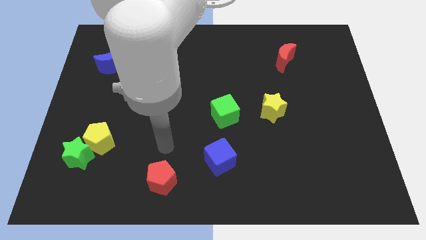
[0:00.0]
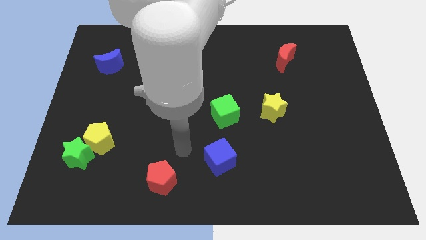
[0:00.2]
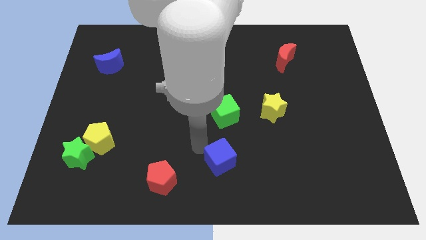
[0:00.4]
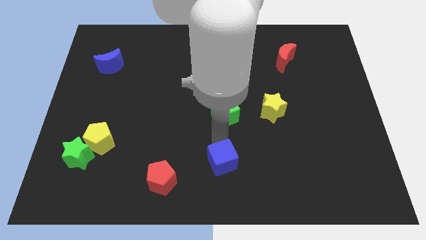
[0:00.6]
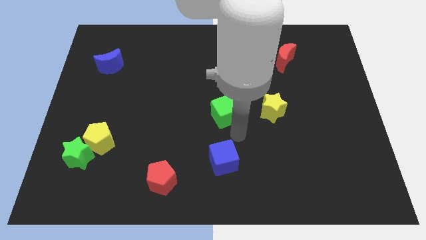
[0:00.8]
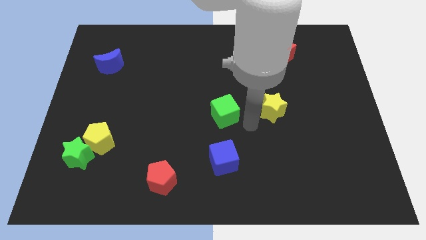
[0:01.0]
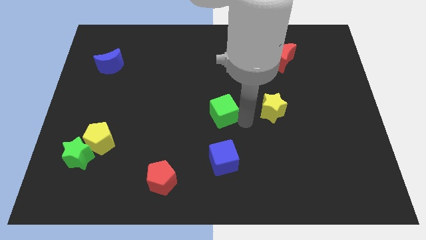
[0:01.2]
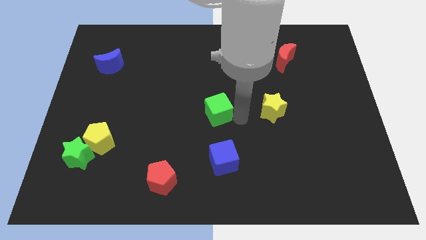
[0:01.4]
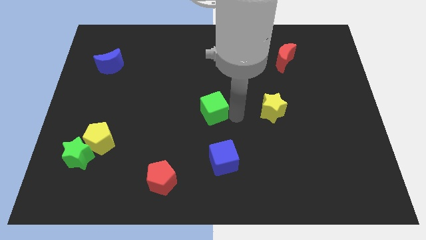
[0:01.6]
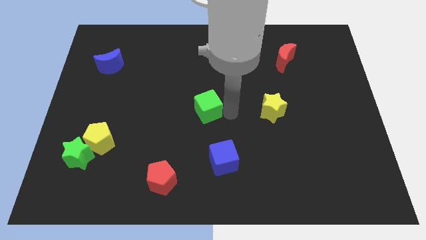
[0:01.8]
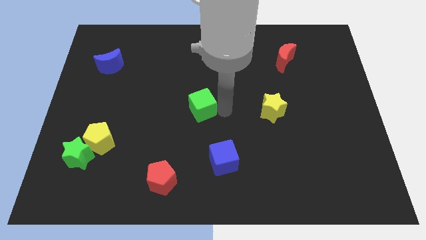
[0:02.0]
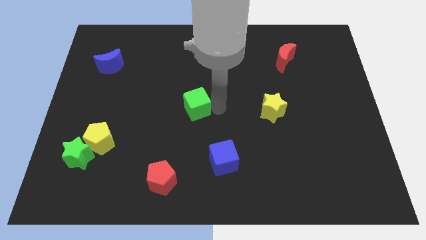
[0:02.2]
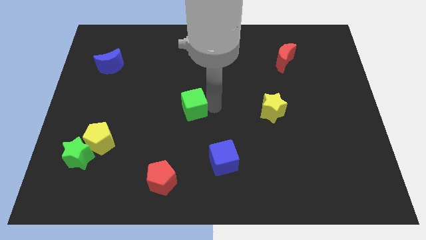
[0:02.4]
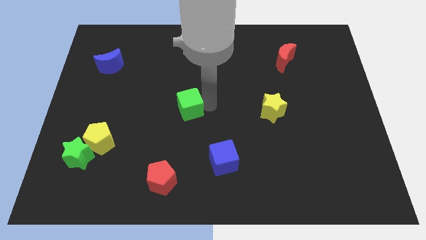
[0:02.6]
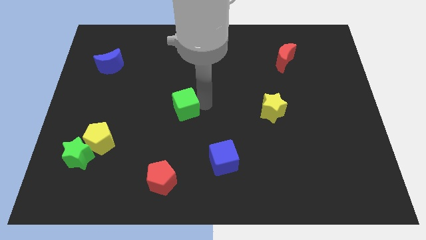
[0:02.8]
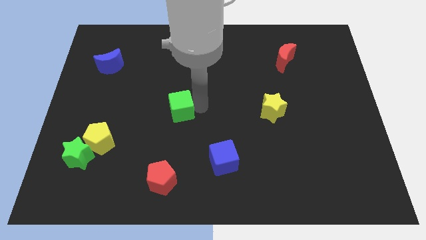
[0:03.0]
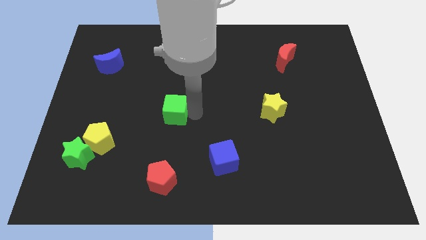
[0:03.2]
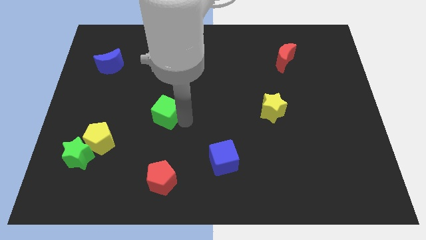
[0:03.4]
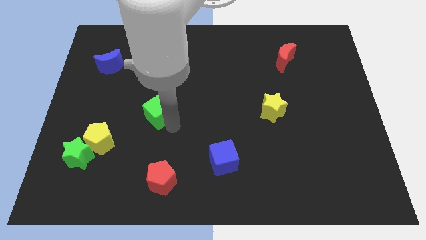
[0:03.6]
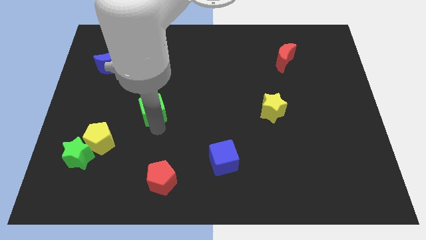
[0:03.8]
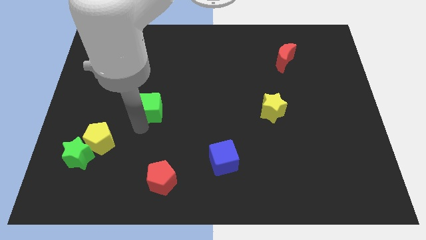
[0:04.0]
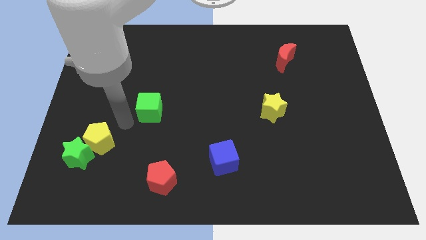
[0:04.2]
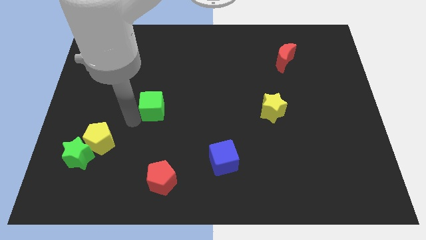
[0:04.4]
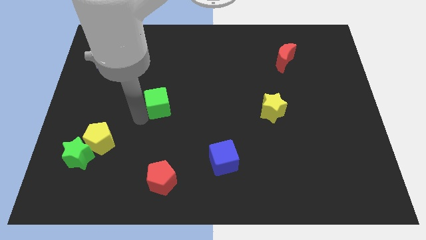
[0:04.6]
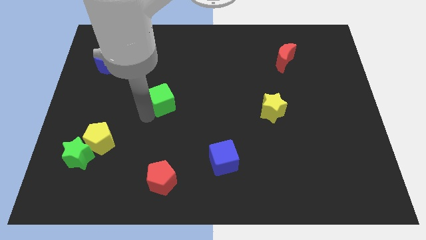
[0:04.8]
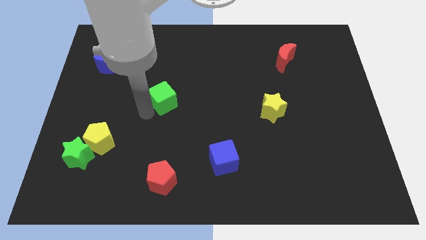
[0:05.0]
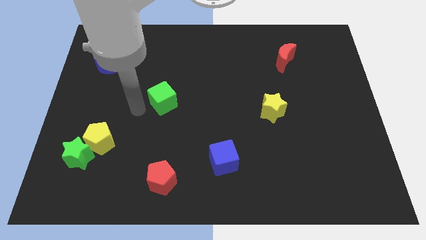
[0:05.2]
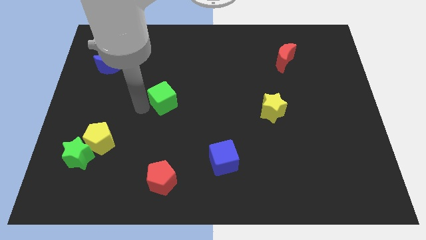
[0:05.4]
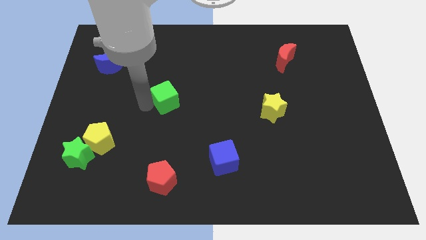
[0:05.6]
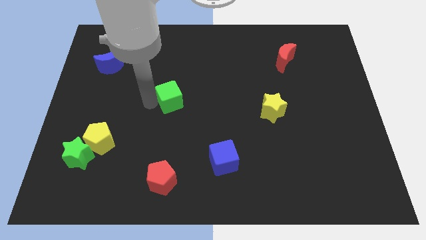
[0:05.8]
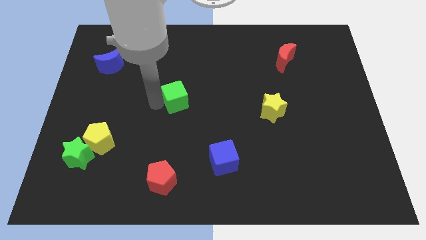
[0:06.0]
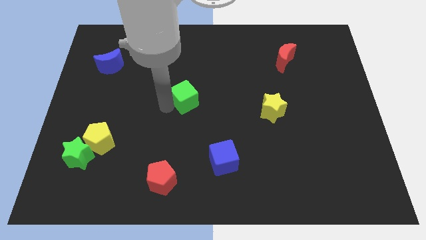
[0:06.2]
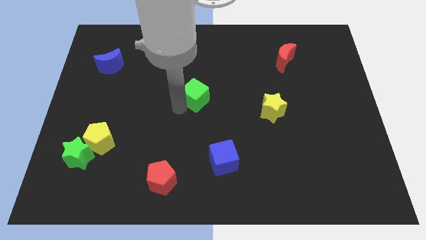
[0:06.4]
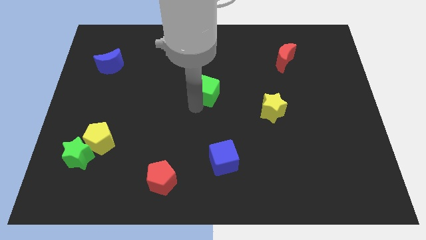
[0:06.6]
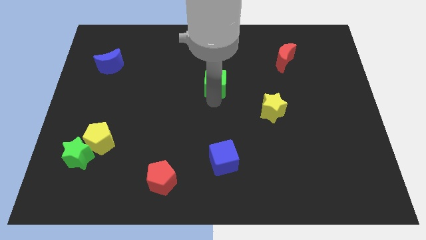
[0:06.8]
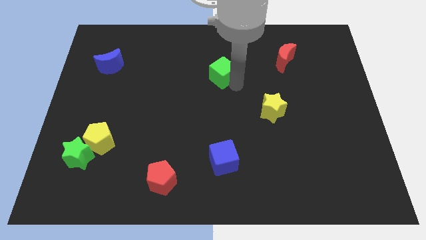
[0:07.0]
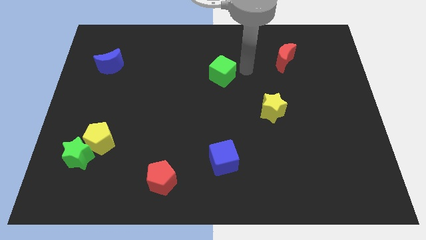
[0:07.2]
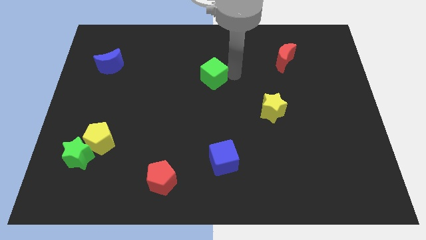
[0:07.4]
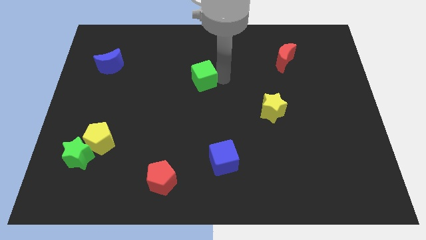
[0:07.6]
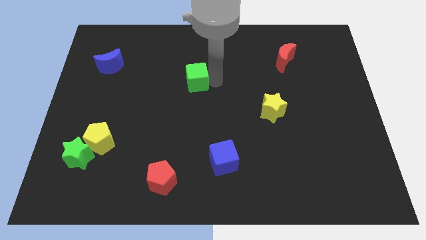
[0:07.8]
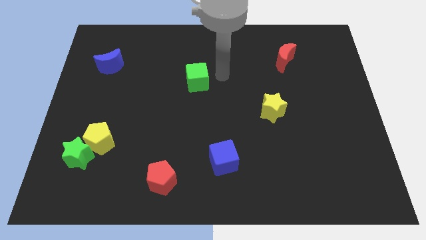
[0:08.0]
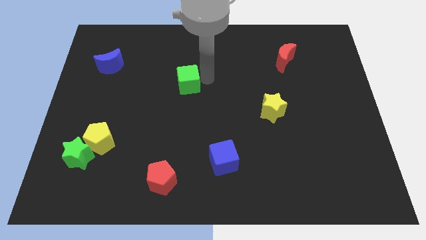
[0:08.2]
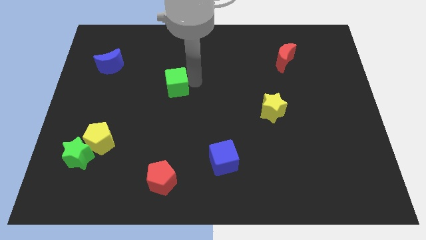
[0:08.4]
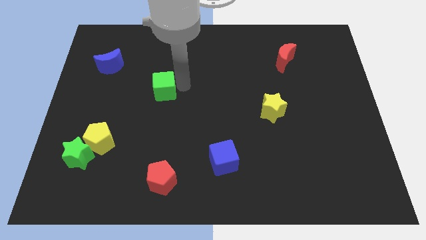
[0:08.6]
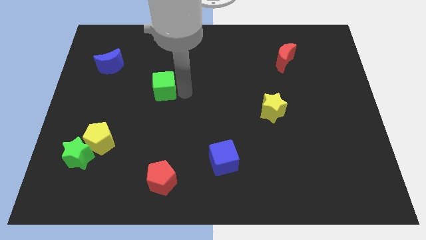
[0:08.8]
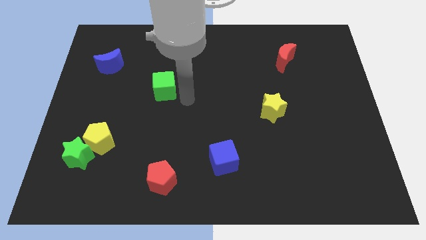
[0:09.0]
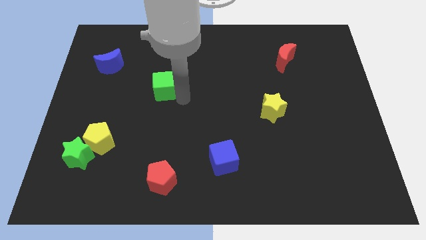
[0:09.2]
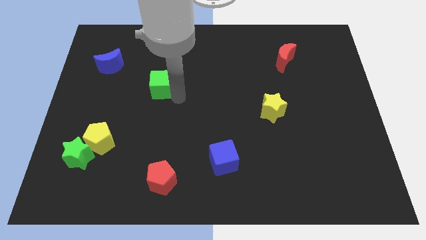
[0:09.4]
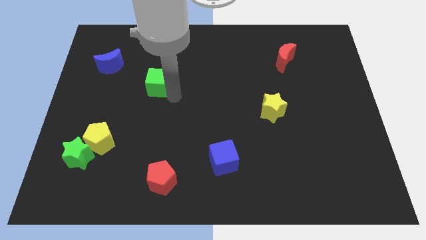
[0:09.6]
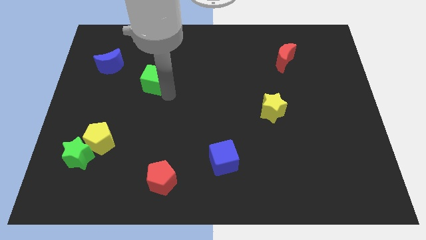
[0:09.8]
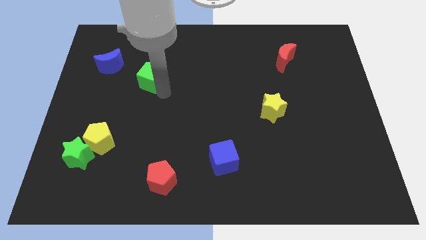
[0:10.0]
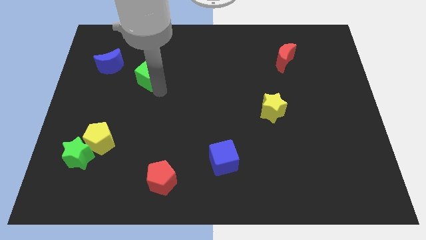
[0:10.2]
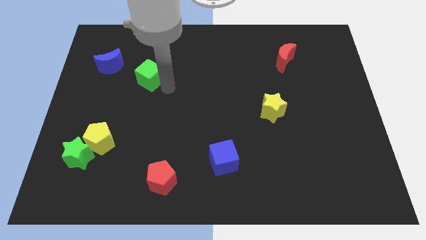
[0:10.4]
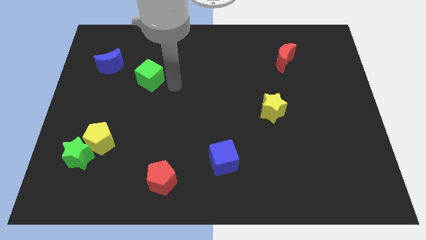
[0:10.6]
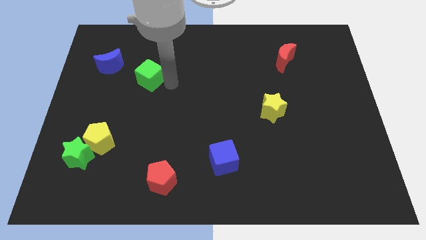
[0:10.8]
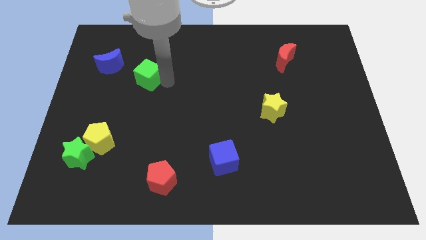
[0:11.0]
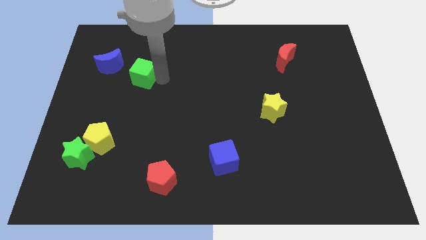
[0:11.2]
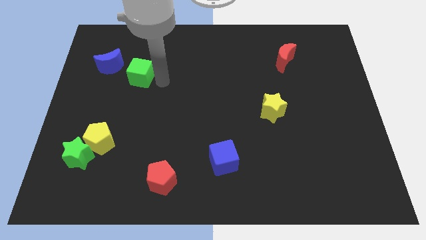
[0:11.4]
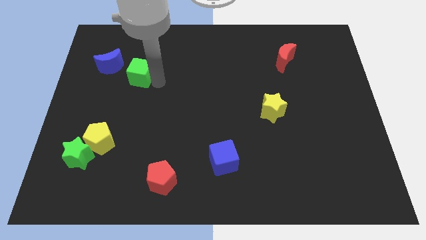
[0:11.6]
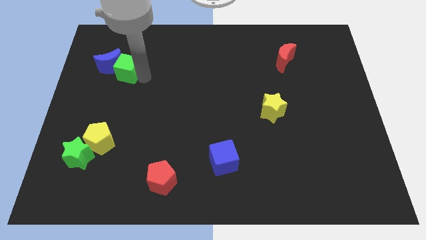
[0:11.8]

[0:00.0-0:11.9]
put the green cube towards the blue moon

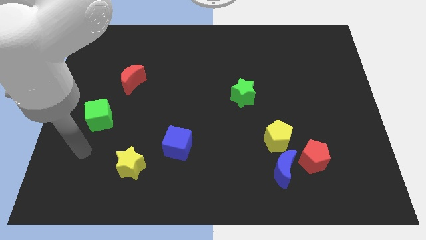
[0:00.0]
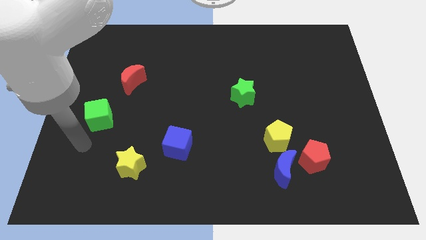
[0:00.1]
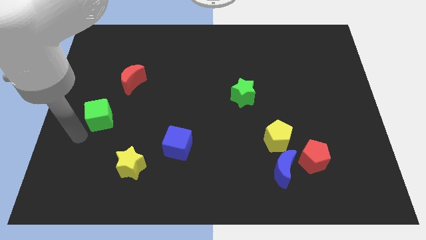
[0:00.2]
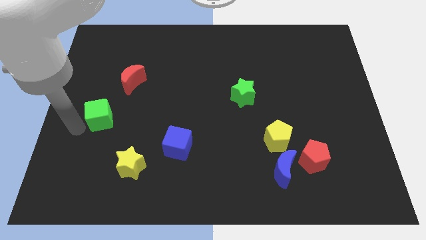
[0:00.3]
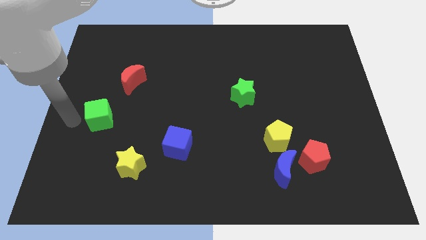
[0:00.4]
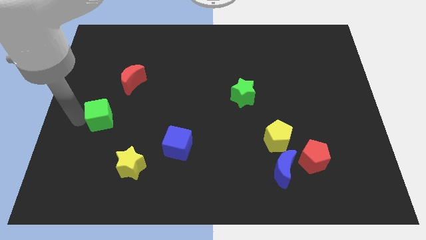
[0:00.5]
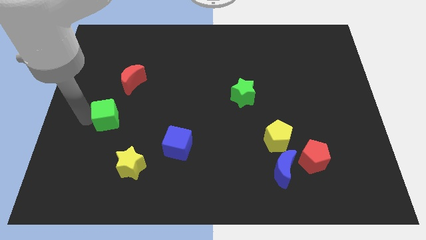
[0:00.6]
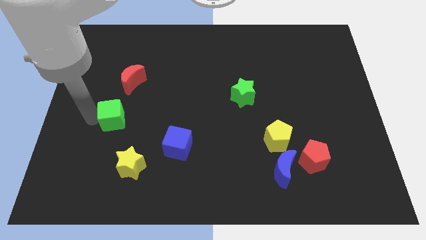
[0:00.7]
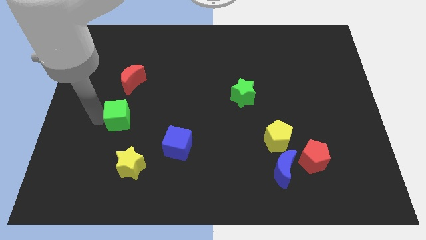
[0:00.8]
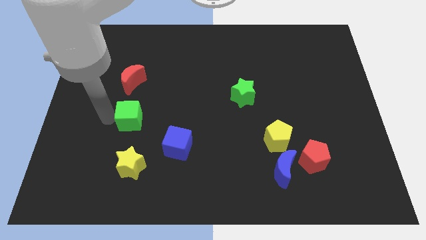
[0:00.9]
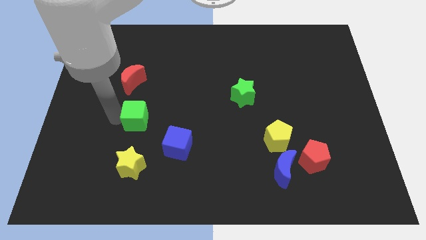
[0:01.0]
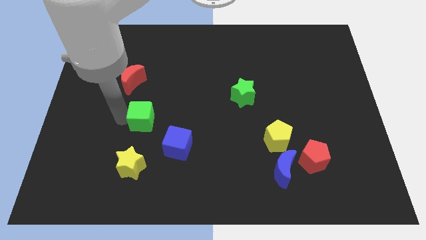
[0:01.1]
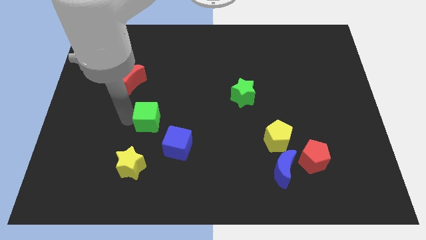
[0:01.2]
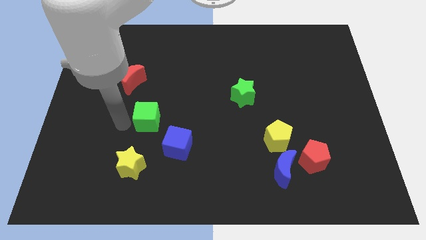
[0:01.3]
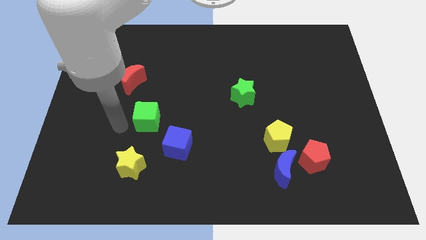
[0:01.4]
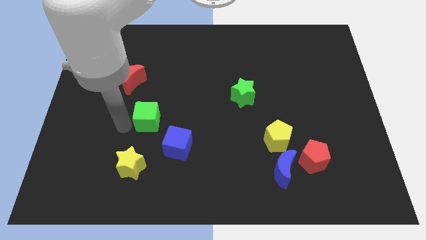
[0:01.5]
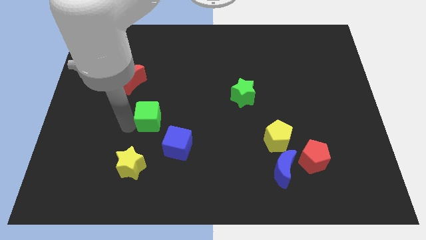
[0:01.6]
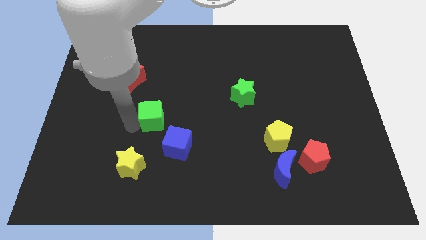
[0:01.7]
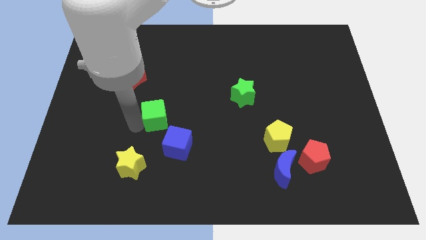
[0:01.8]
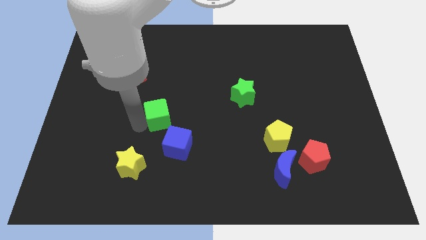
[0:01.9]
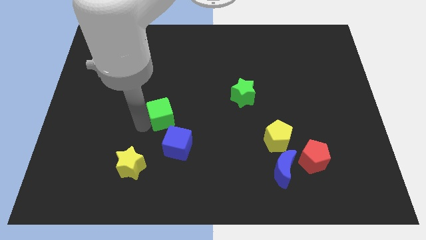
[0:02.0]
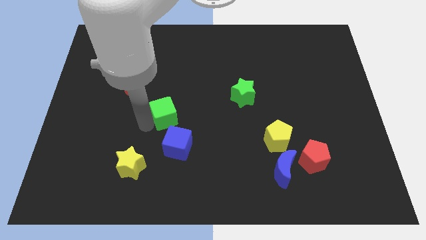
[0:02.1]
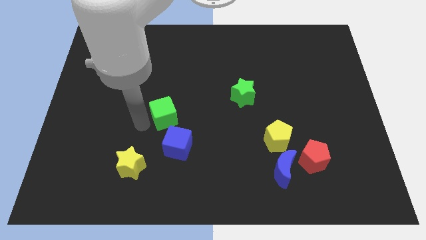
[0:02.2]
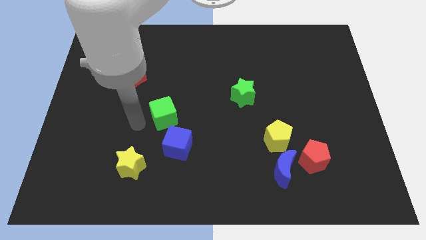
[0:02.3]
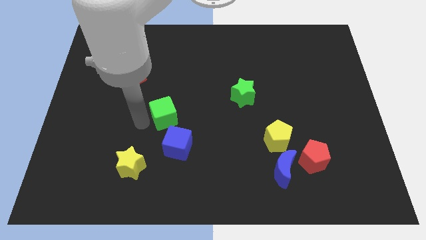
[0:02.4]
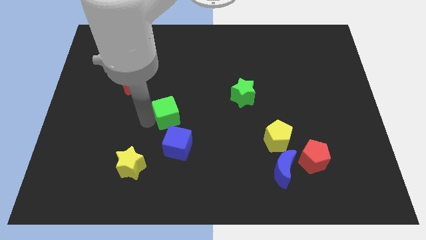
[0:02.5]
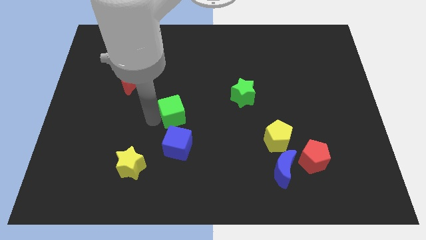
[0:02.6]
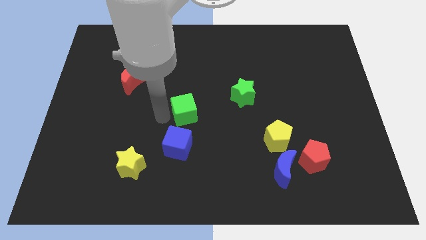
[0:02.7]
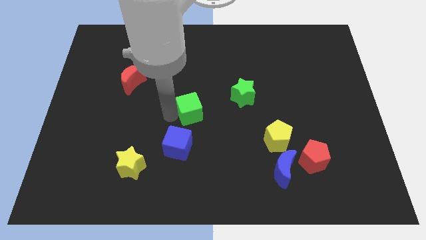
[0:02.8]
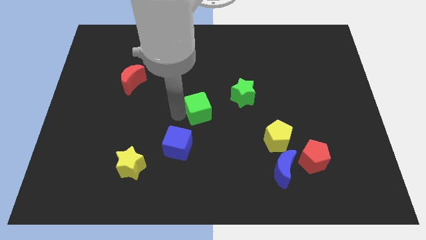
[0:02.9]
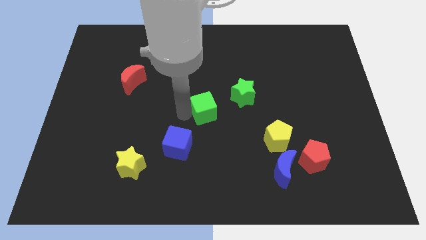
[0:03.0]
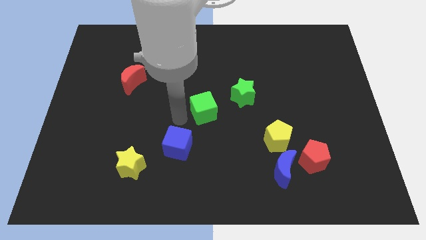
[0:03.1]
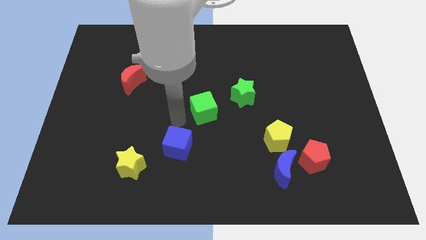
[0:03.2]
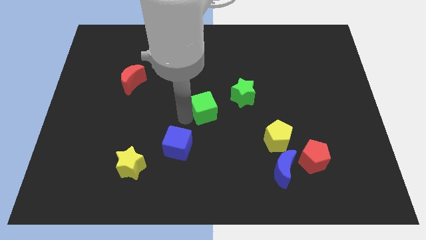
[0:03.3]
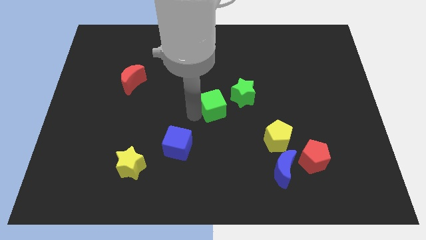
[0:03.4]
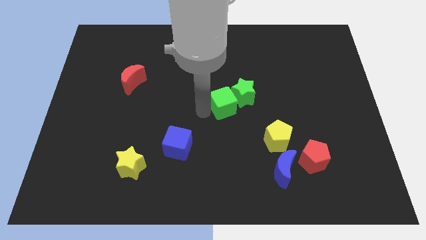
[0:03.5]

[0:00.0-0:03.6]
move the green cube close to the green star
